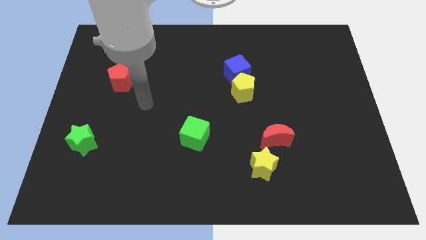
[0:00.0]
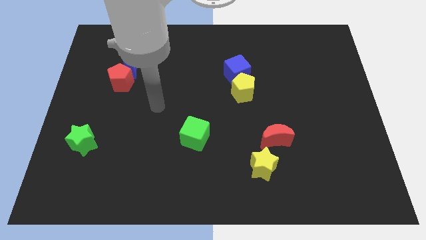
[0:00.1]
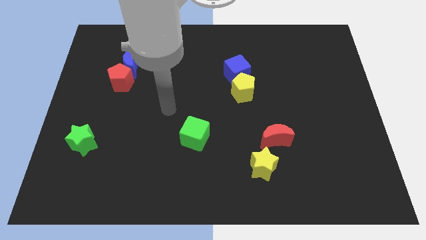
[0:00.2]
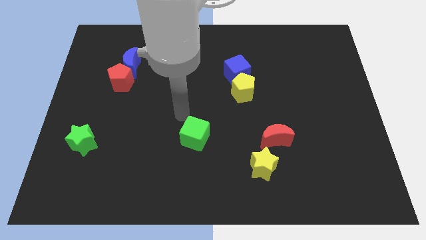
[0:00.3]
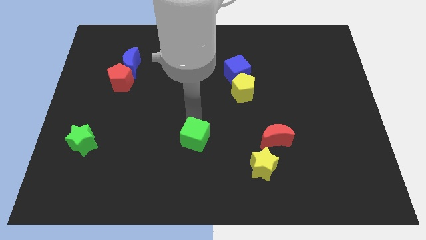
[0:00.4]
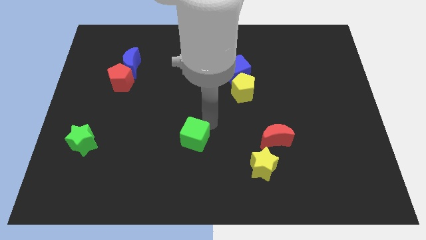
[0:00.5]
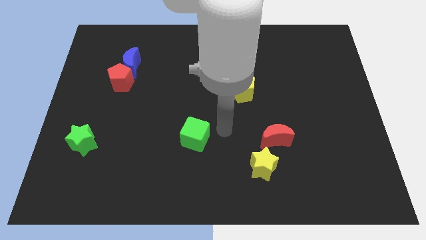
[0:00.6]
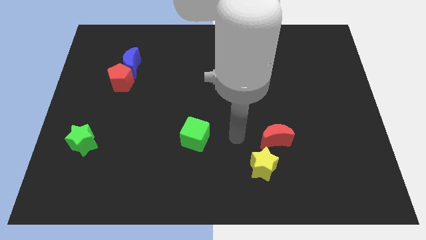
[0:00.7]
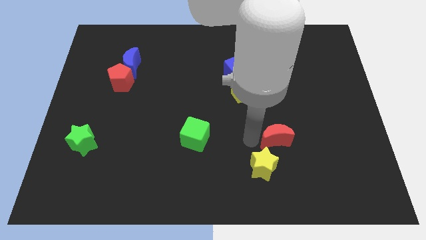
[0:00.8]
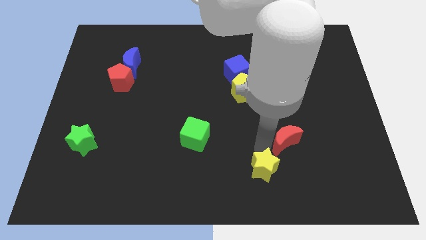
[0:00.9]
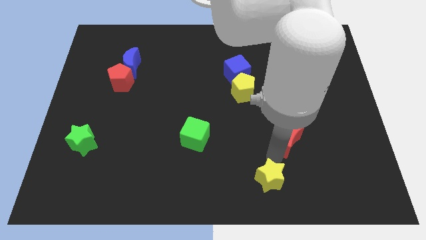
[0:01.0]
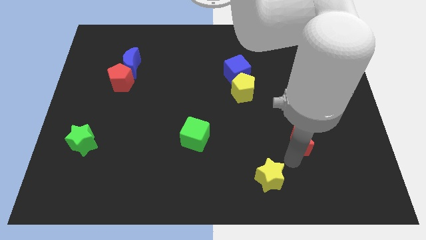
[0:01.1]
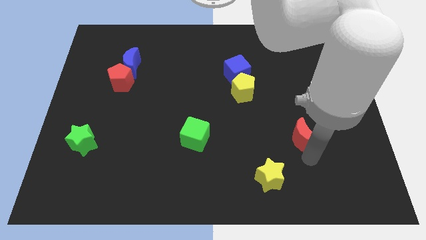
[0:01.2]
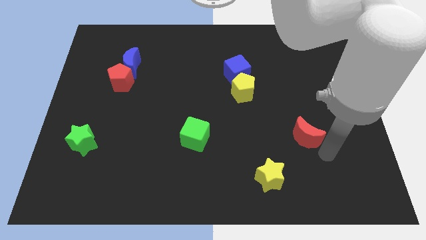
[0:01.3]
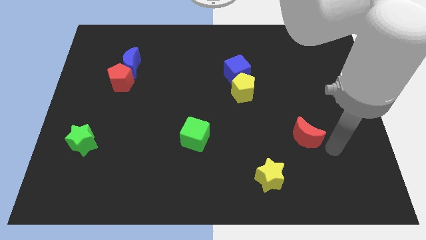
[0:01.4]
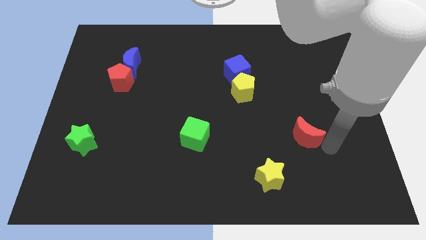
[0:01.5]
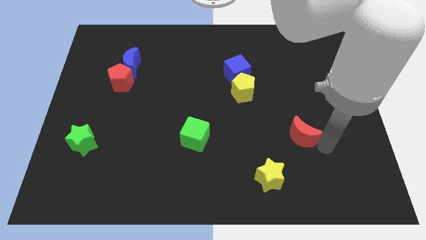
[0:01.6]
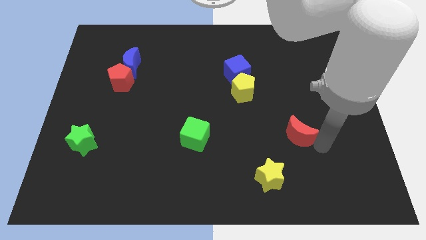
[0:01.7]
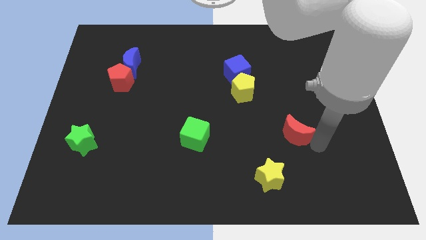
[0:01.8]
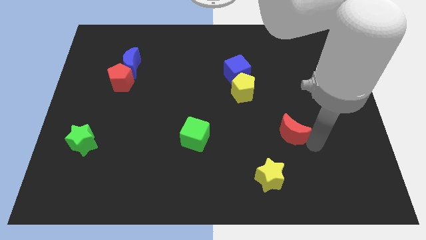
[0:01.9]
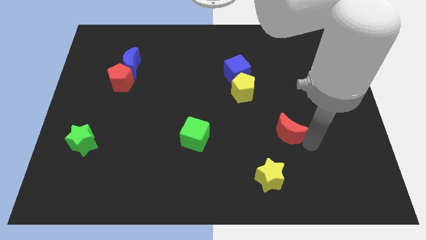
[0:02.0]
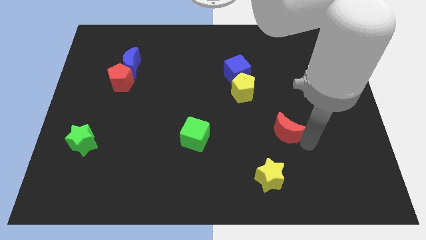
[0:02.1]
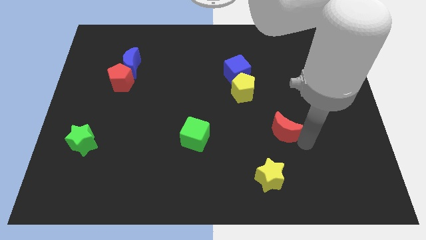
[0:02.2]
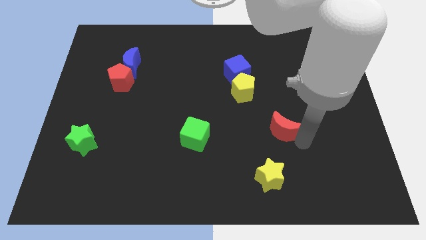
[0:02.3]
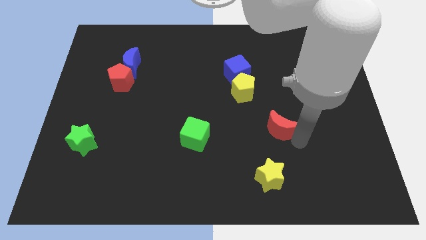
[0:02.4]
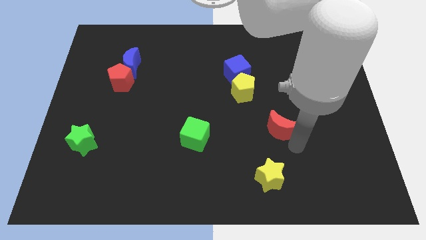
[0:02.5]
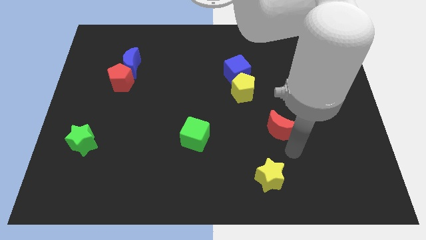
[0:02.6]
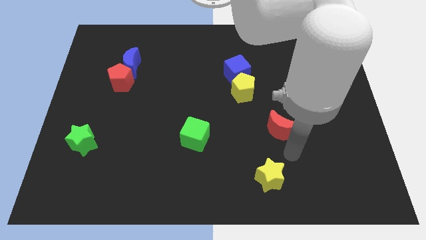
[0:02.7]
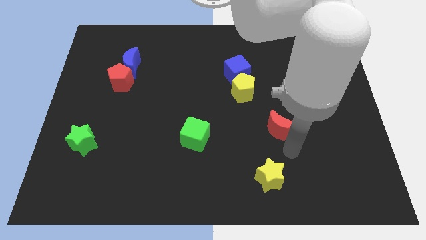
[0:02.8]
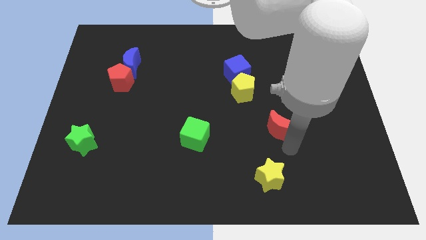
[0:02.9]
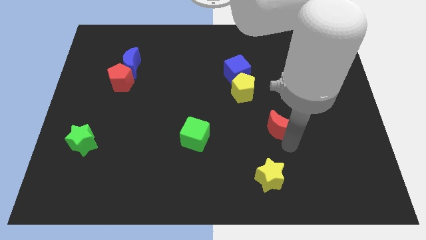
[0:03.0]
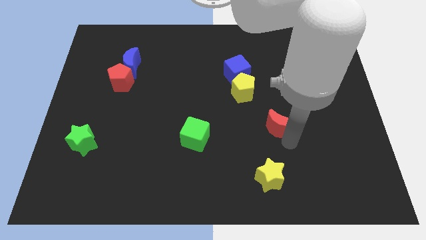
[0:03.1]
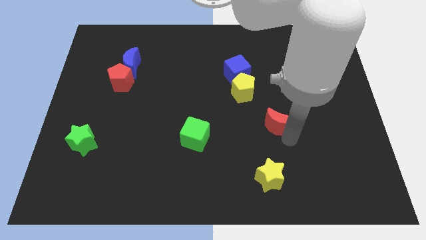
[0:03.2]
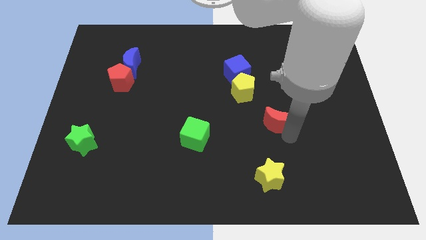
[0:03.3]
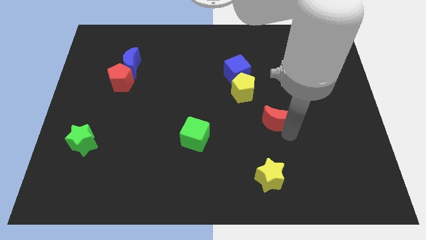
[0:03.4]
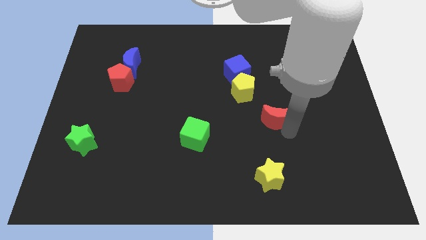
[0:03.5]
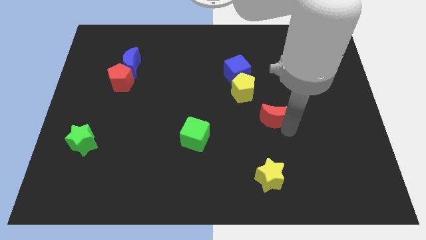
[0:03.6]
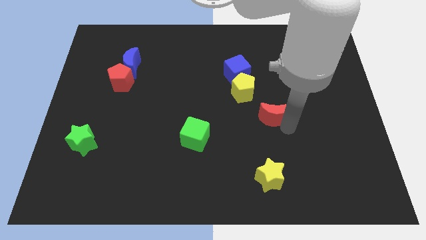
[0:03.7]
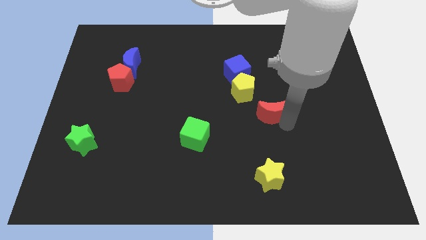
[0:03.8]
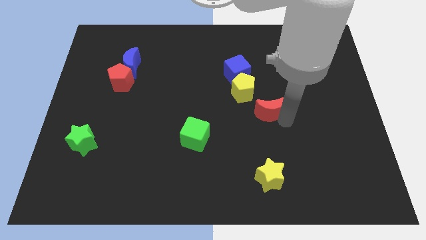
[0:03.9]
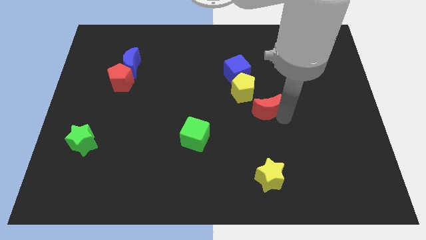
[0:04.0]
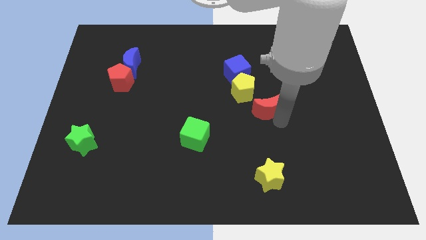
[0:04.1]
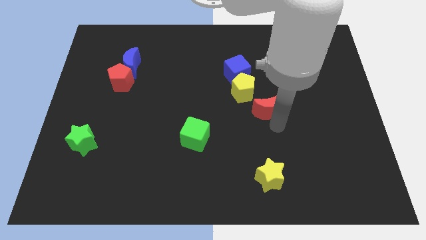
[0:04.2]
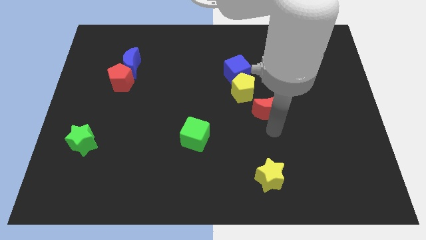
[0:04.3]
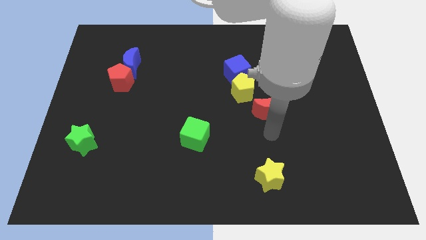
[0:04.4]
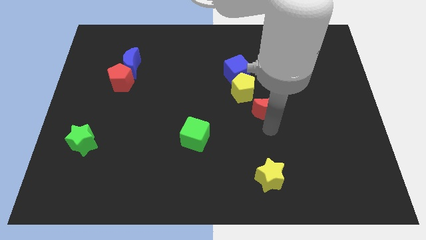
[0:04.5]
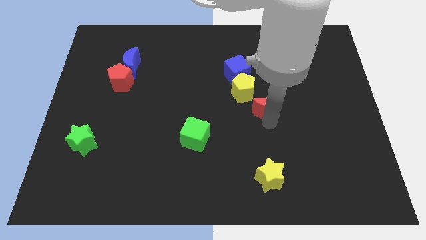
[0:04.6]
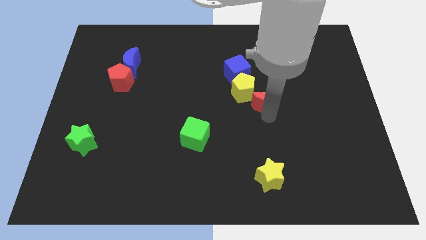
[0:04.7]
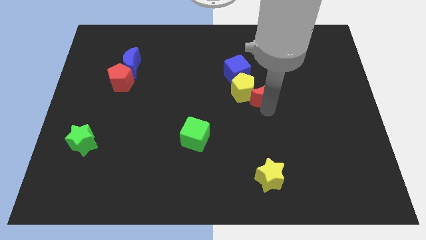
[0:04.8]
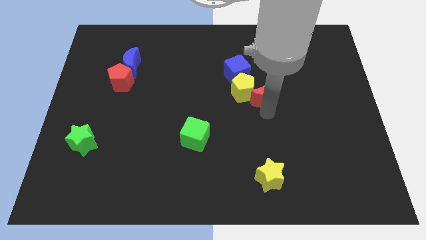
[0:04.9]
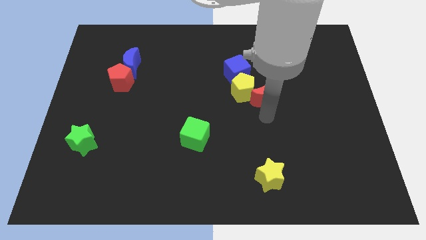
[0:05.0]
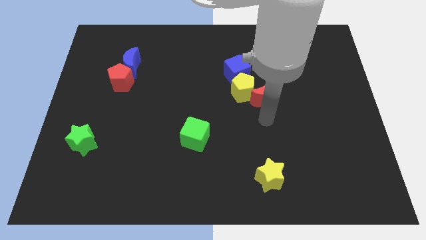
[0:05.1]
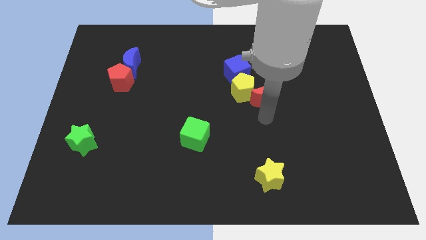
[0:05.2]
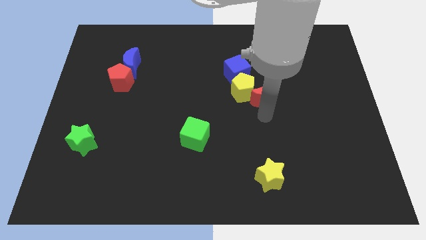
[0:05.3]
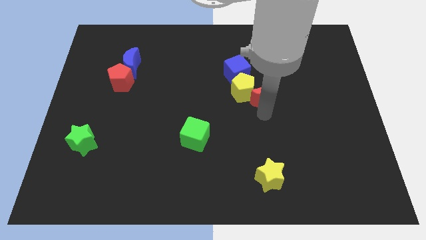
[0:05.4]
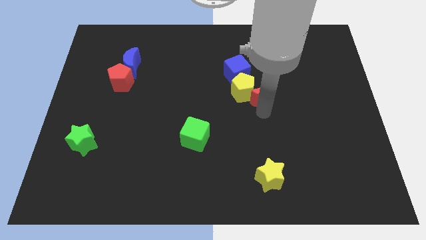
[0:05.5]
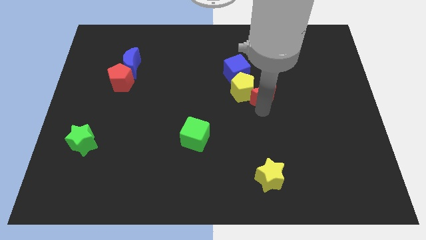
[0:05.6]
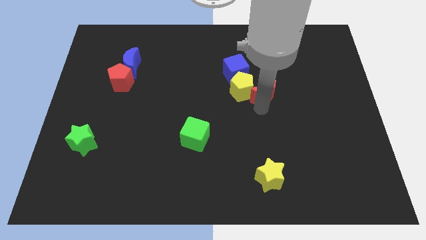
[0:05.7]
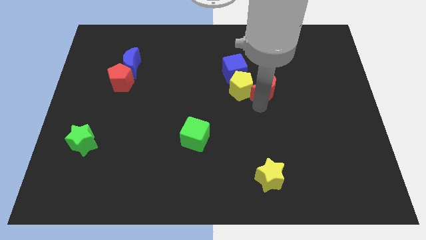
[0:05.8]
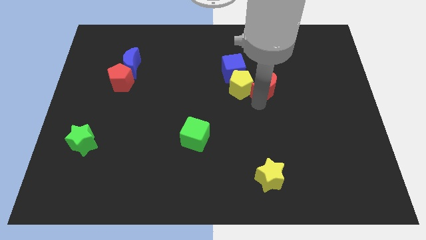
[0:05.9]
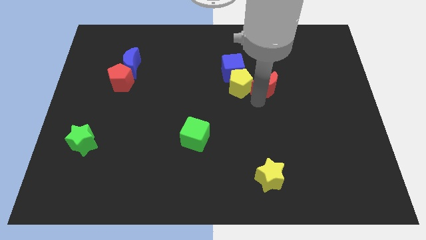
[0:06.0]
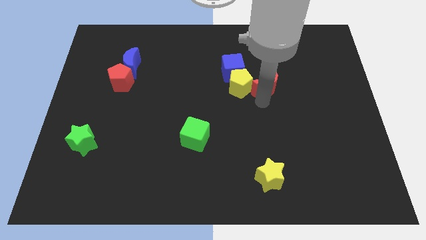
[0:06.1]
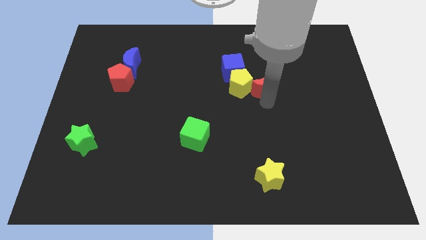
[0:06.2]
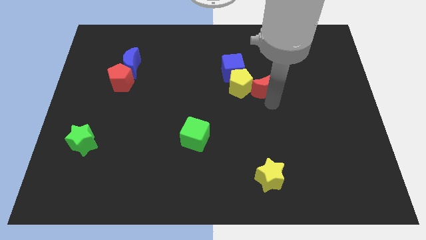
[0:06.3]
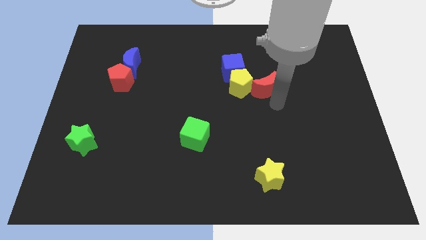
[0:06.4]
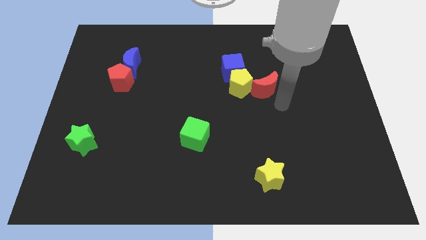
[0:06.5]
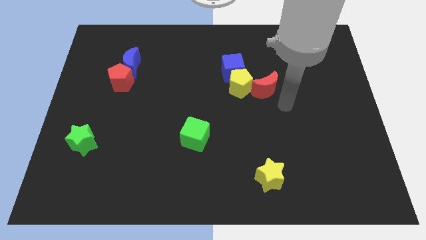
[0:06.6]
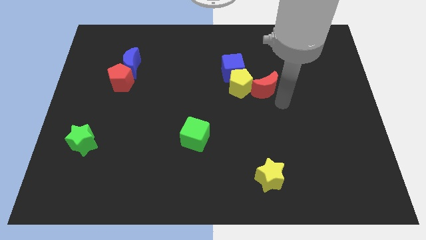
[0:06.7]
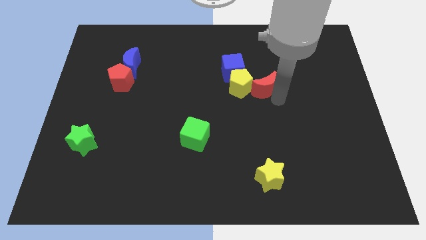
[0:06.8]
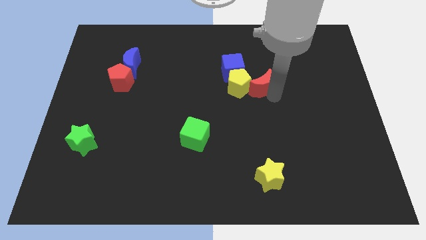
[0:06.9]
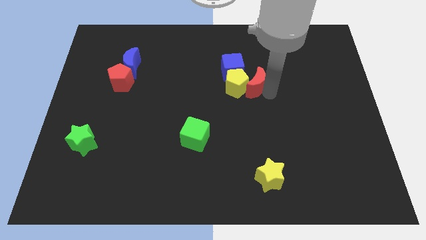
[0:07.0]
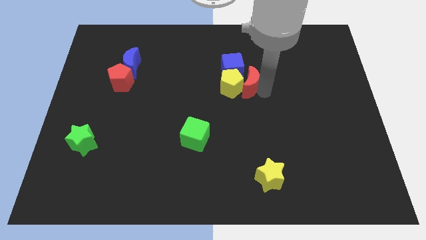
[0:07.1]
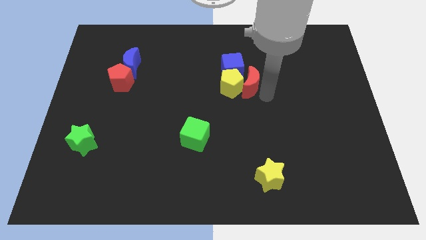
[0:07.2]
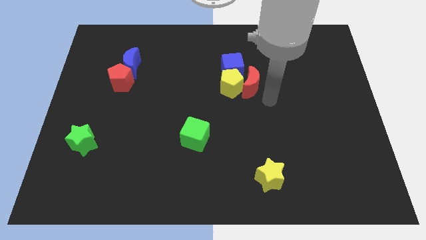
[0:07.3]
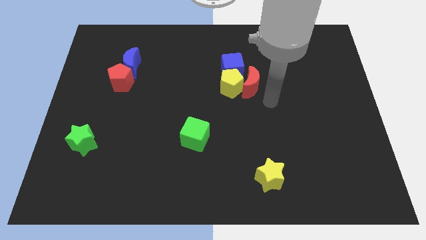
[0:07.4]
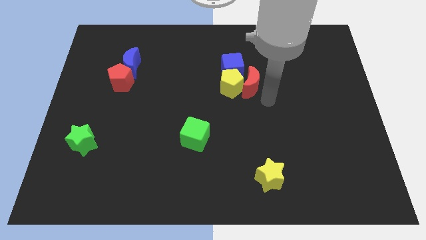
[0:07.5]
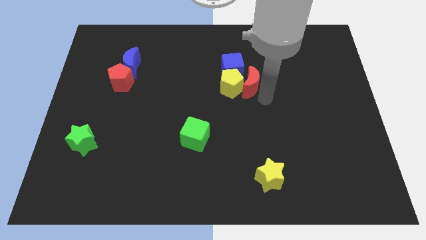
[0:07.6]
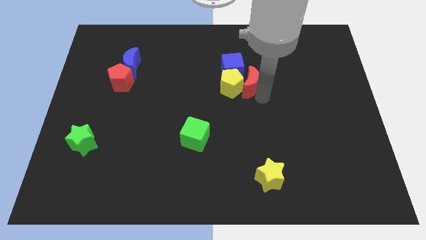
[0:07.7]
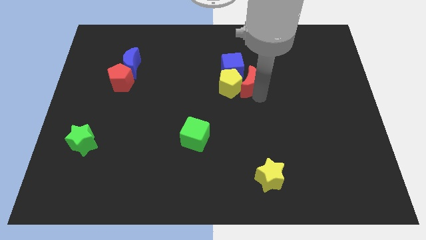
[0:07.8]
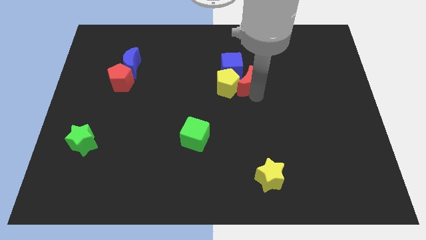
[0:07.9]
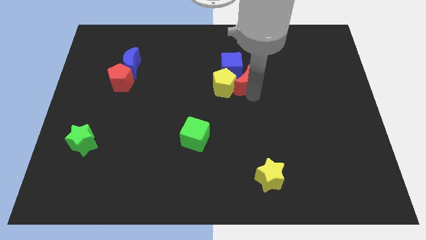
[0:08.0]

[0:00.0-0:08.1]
put the red moon close to the blue cube
